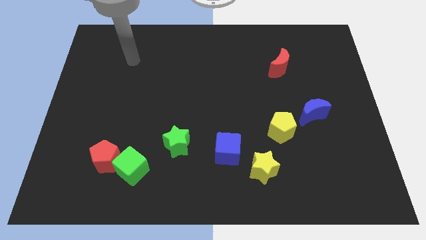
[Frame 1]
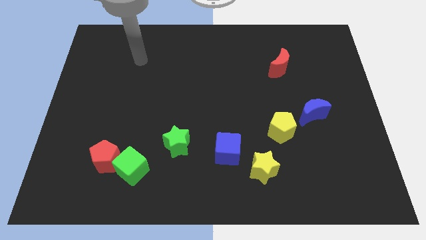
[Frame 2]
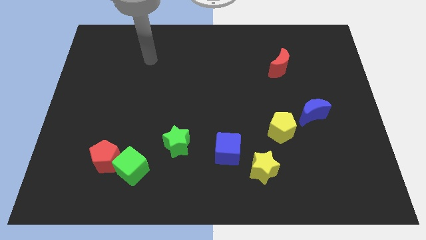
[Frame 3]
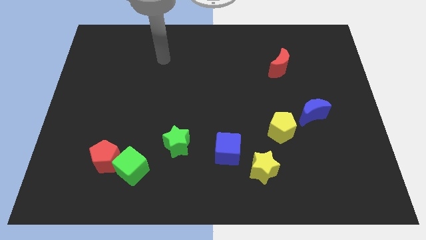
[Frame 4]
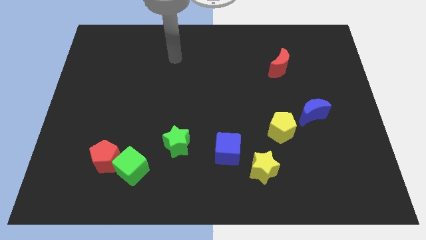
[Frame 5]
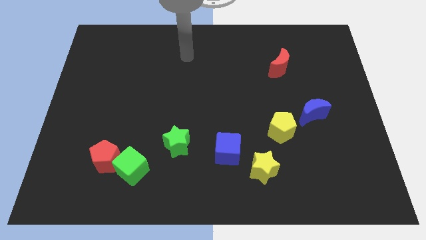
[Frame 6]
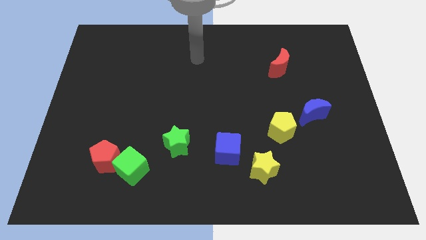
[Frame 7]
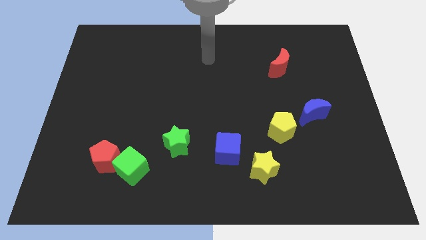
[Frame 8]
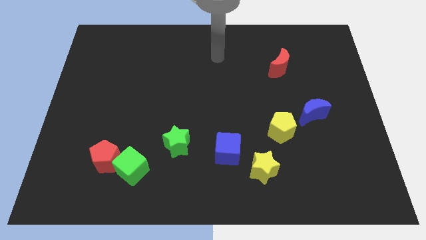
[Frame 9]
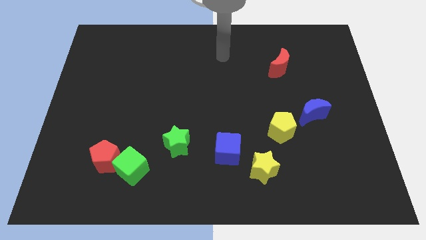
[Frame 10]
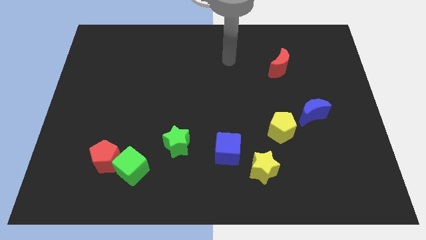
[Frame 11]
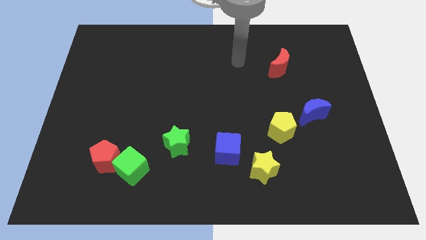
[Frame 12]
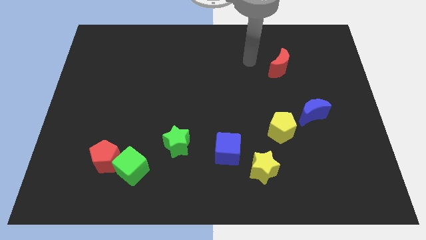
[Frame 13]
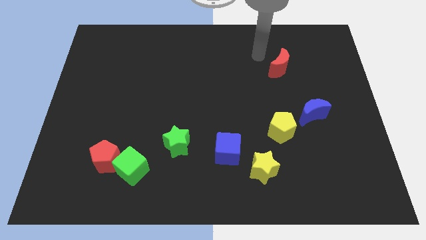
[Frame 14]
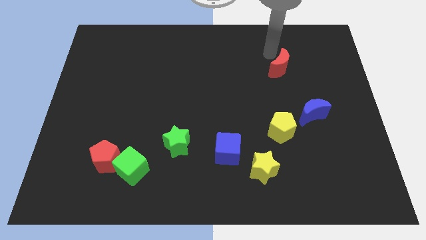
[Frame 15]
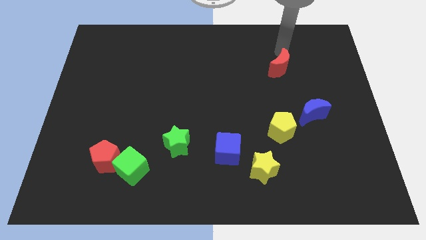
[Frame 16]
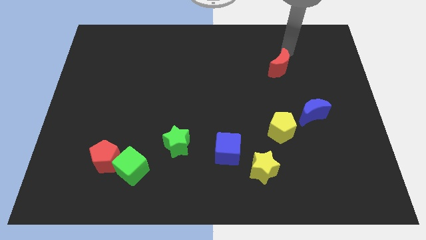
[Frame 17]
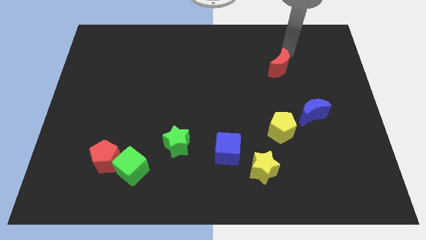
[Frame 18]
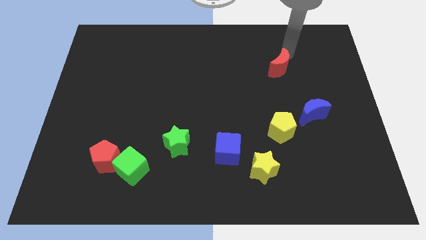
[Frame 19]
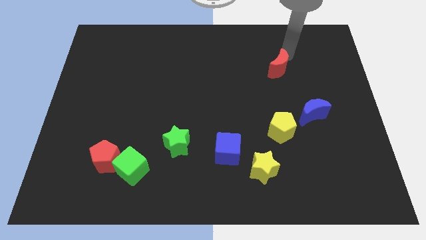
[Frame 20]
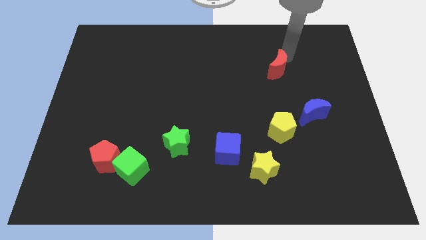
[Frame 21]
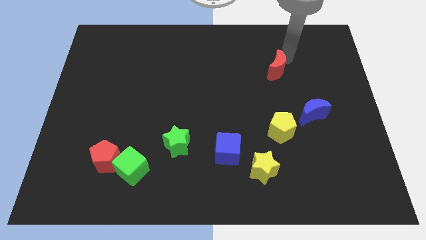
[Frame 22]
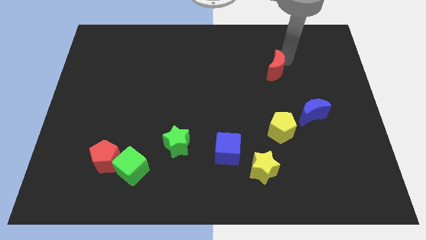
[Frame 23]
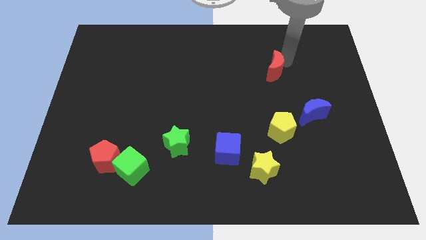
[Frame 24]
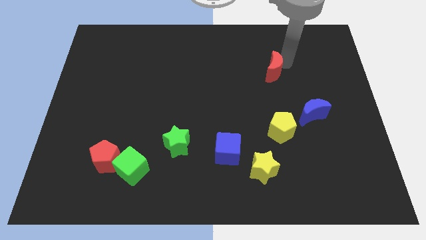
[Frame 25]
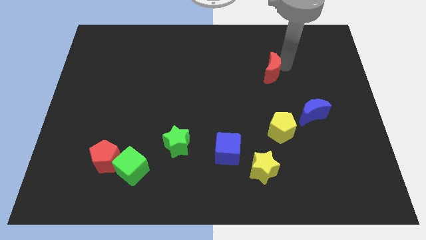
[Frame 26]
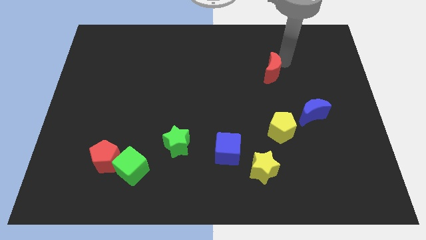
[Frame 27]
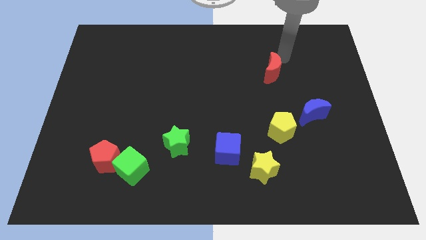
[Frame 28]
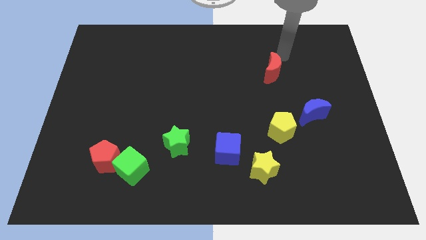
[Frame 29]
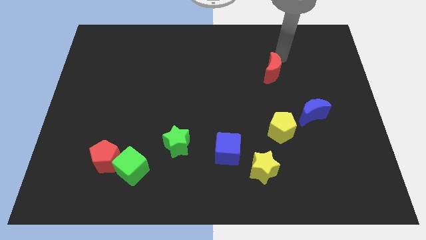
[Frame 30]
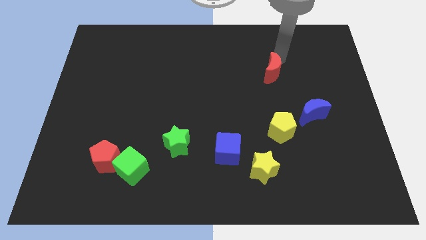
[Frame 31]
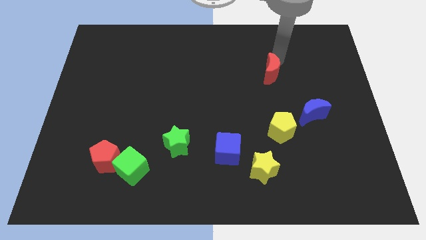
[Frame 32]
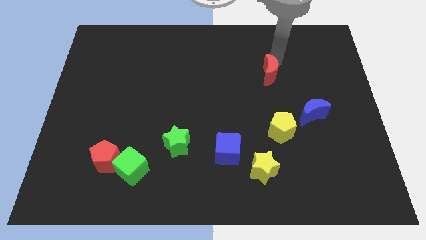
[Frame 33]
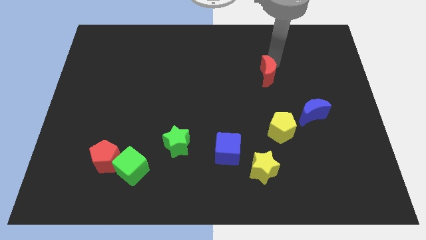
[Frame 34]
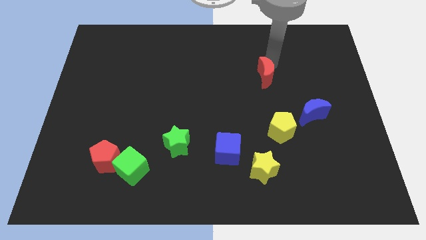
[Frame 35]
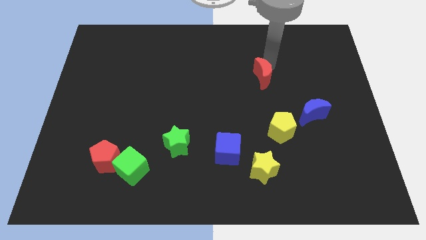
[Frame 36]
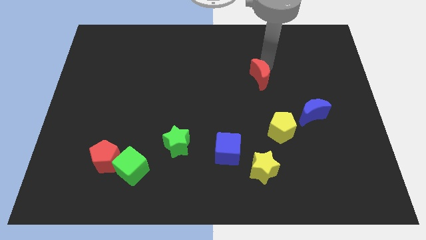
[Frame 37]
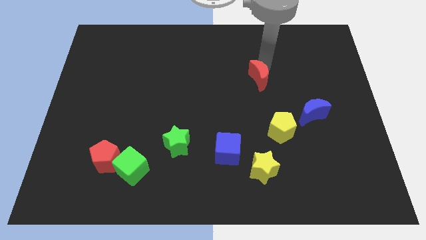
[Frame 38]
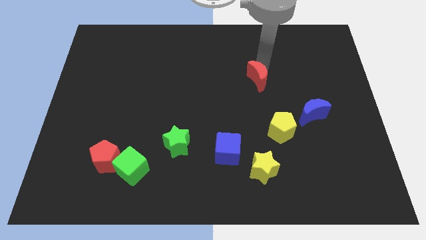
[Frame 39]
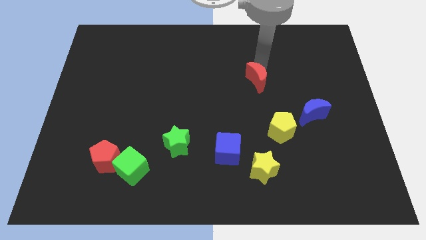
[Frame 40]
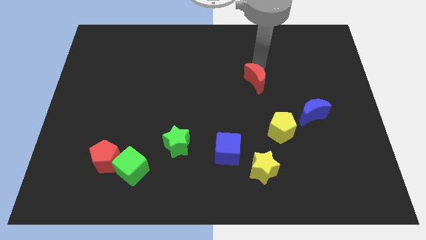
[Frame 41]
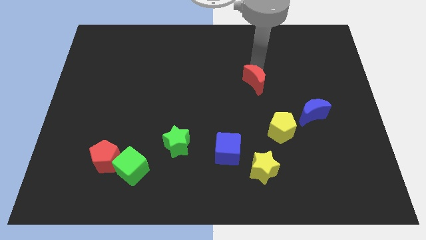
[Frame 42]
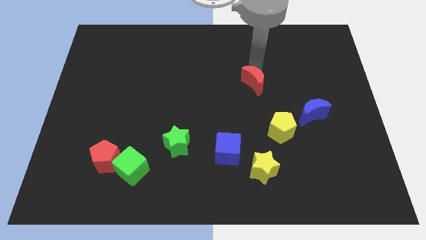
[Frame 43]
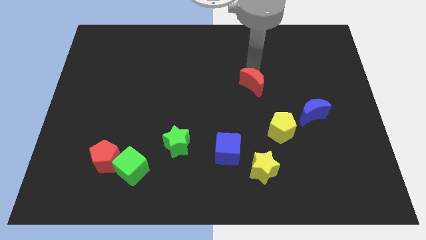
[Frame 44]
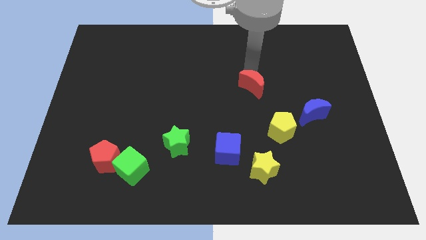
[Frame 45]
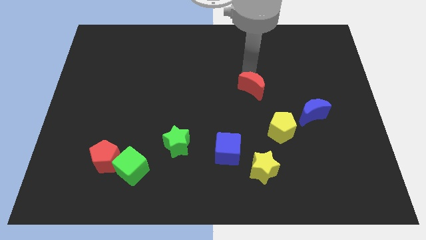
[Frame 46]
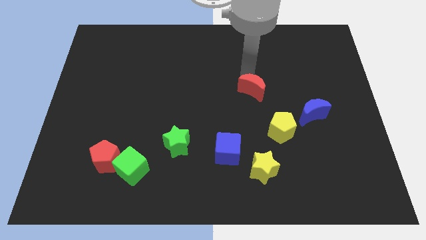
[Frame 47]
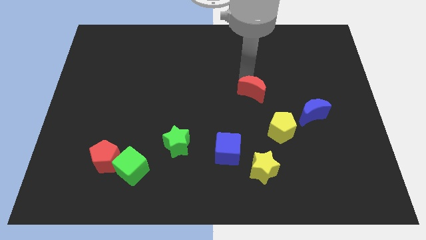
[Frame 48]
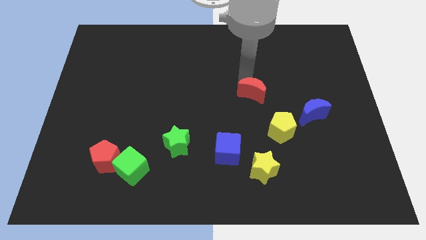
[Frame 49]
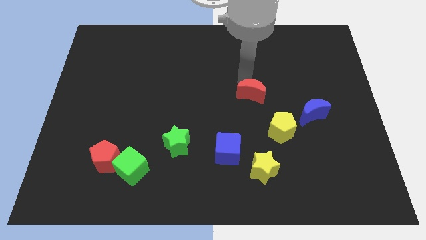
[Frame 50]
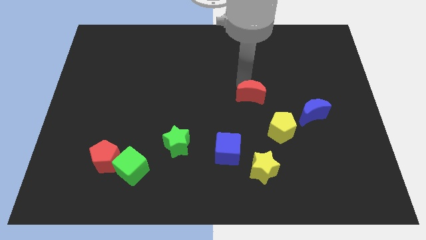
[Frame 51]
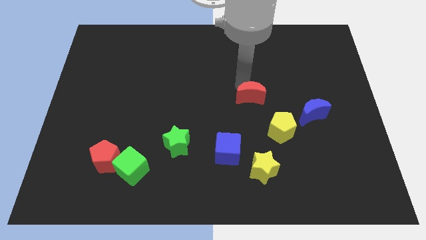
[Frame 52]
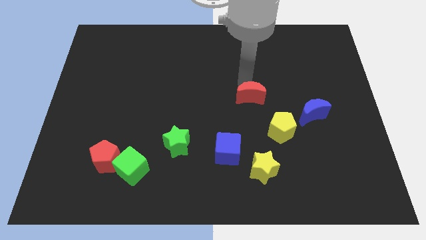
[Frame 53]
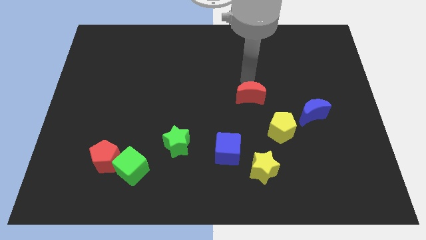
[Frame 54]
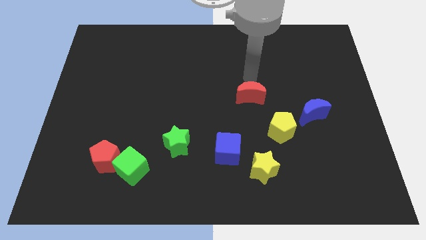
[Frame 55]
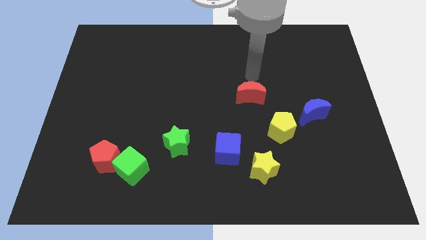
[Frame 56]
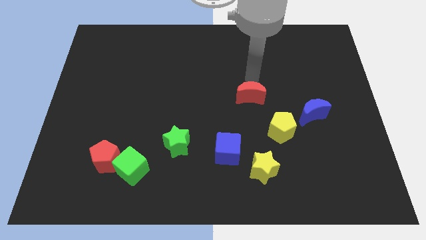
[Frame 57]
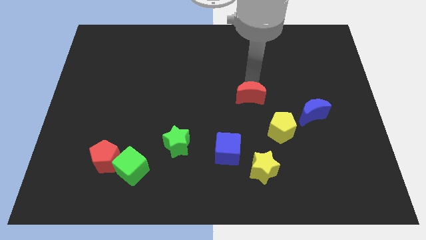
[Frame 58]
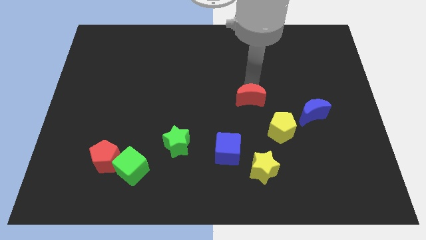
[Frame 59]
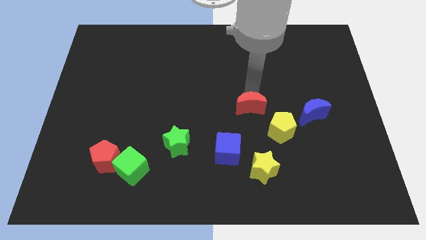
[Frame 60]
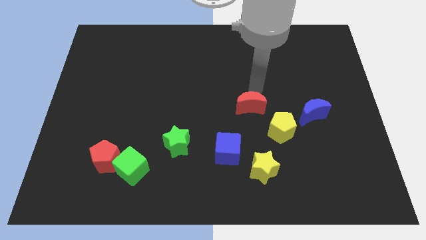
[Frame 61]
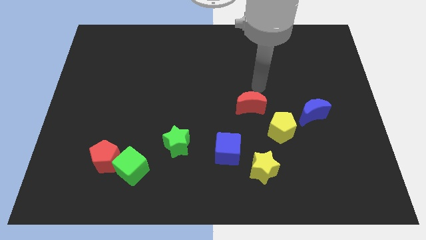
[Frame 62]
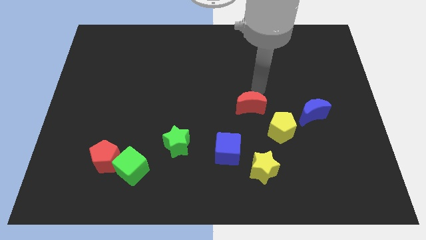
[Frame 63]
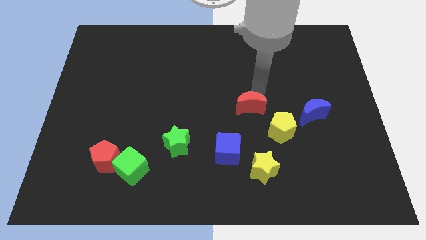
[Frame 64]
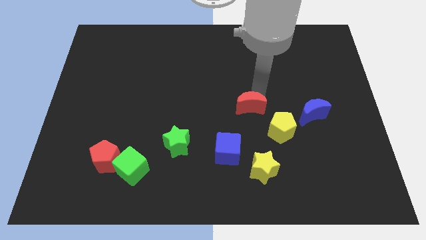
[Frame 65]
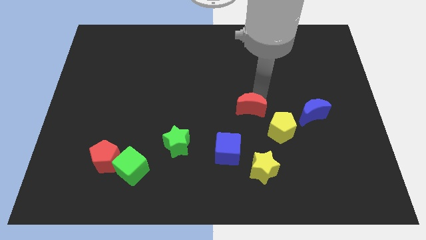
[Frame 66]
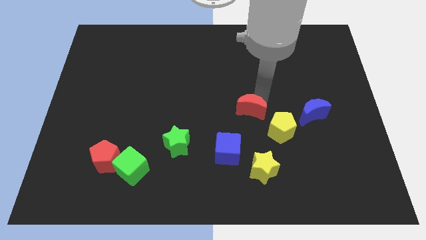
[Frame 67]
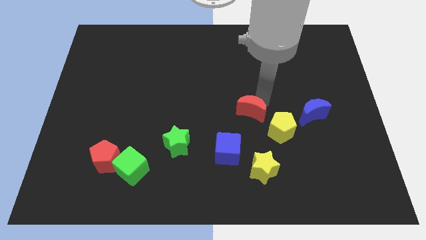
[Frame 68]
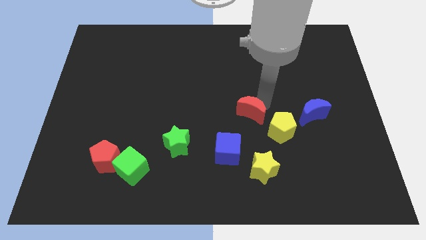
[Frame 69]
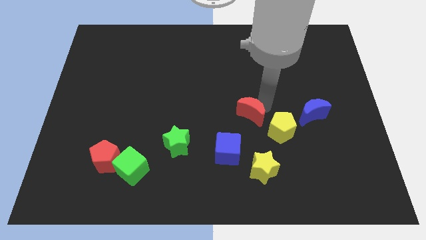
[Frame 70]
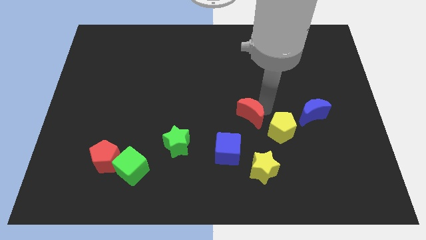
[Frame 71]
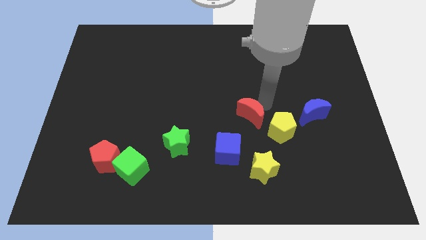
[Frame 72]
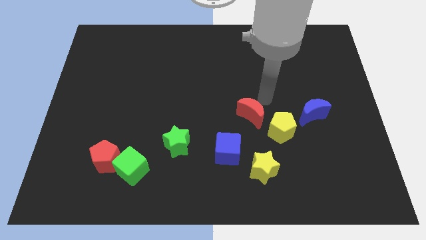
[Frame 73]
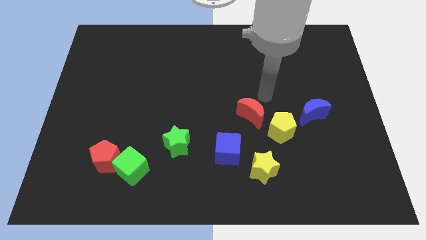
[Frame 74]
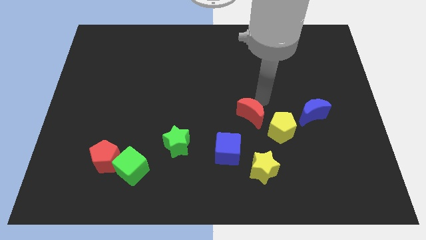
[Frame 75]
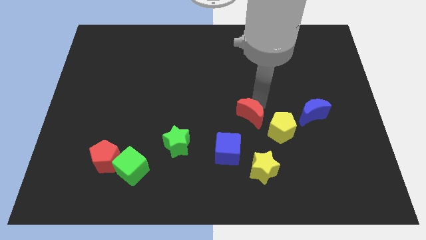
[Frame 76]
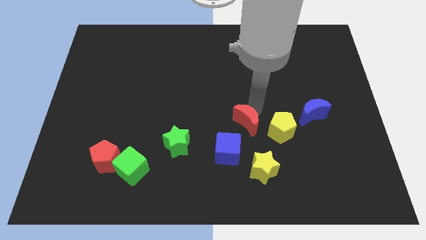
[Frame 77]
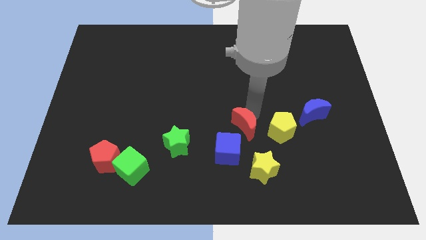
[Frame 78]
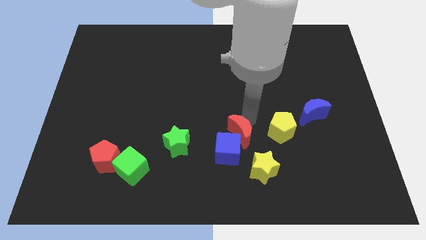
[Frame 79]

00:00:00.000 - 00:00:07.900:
move the red moon towards the blue cube
